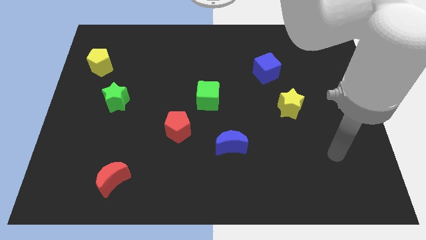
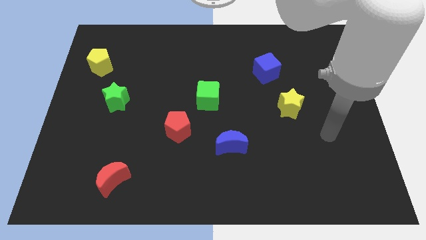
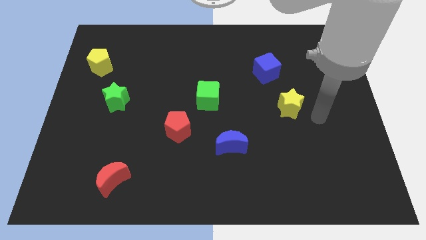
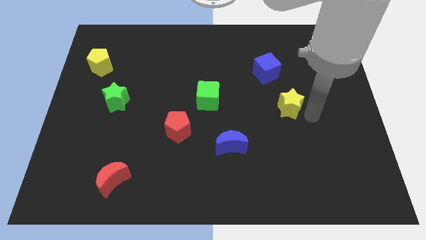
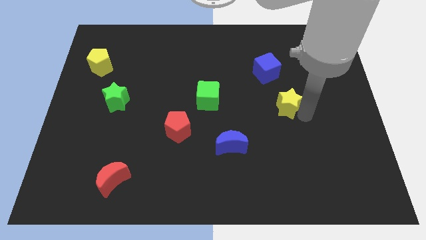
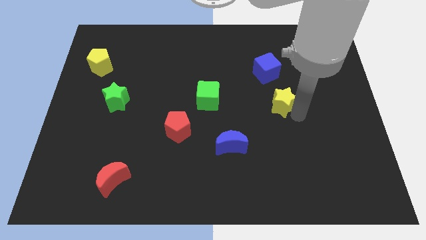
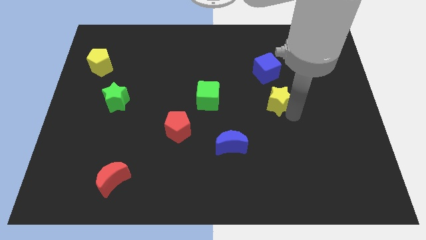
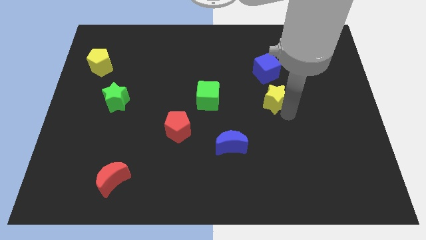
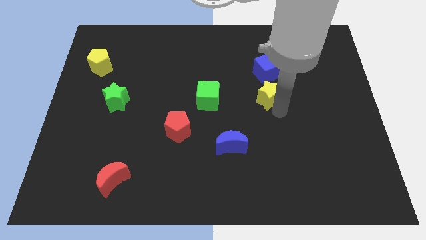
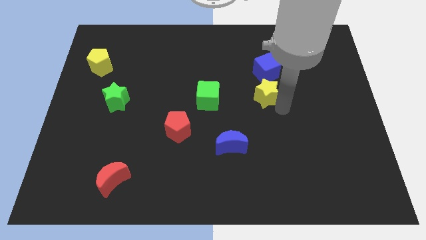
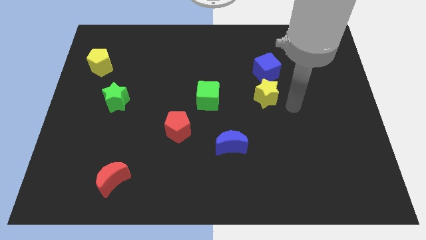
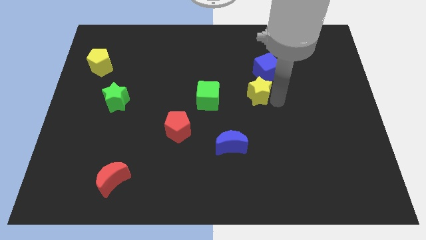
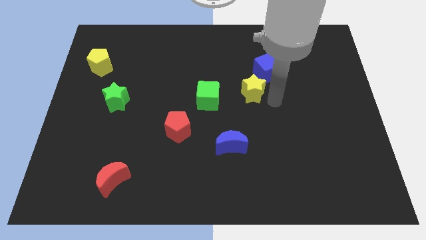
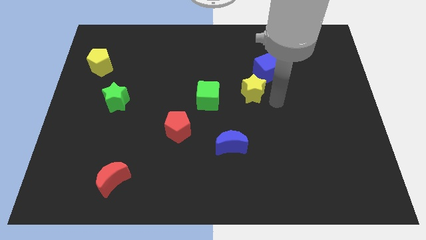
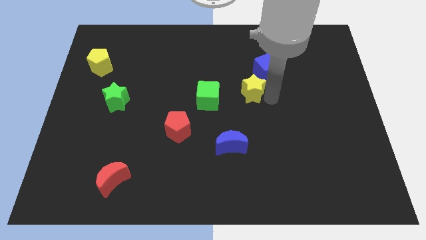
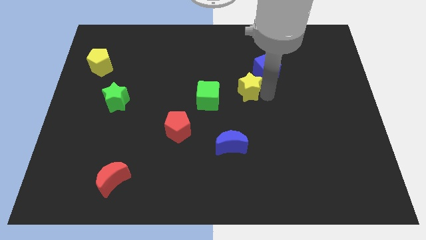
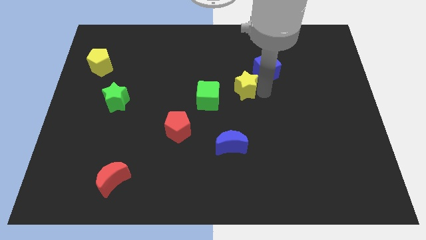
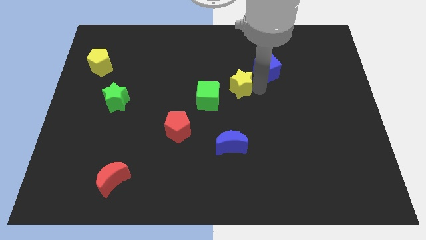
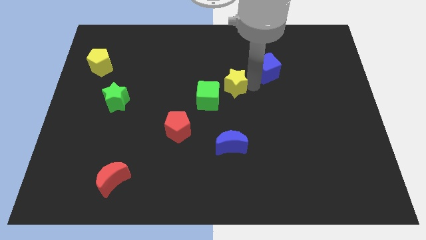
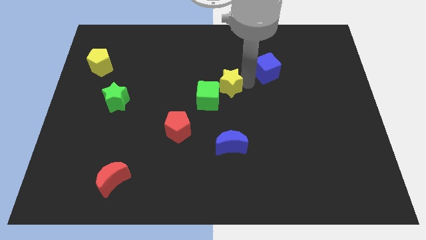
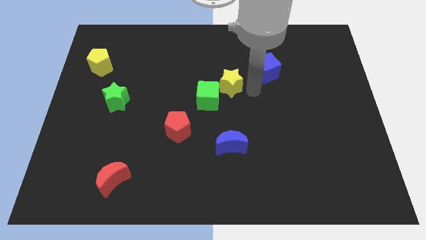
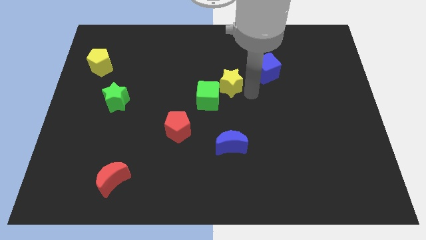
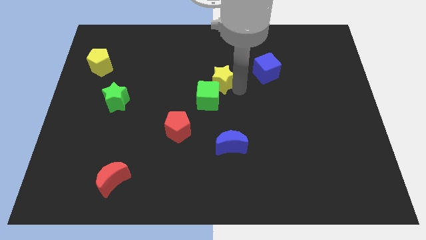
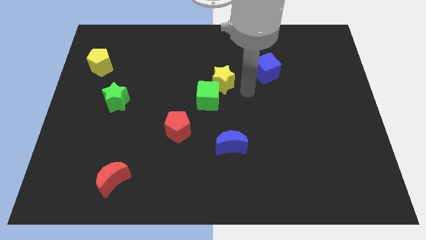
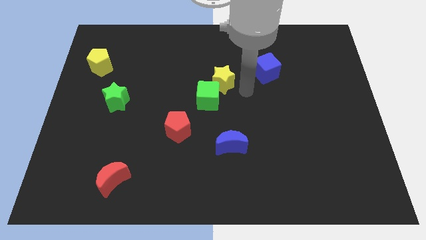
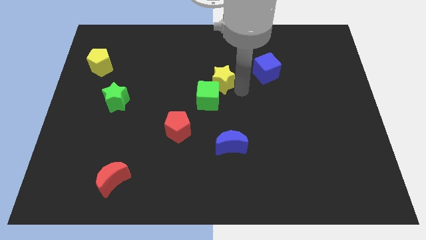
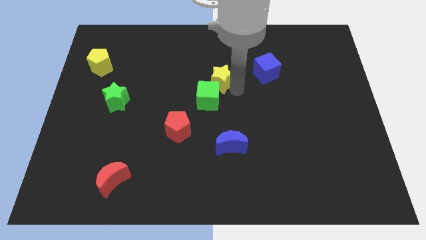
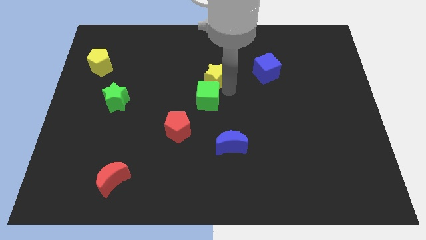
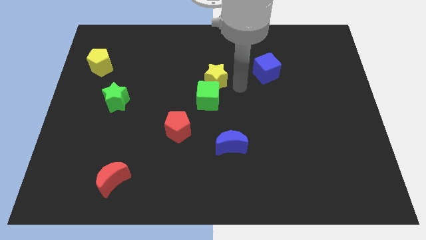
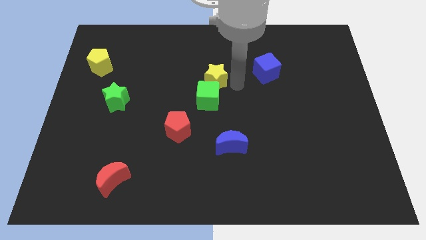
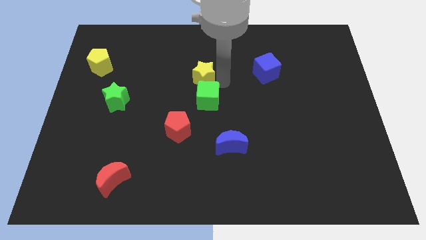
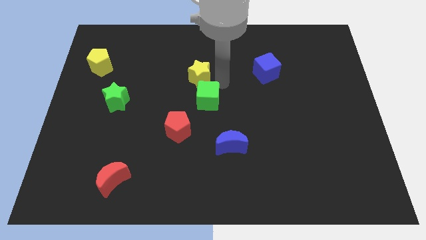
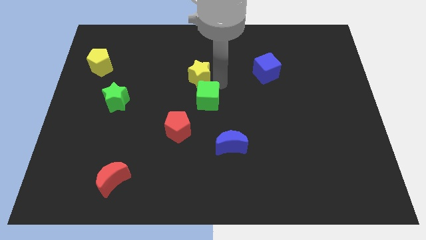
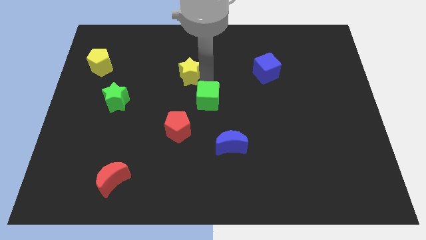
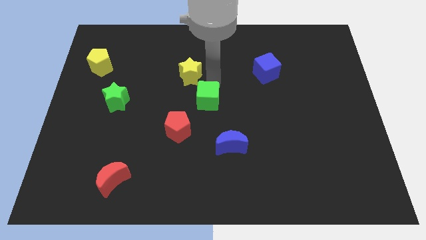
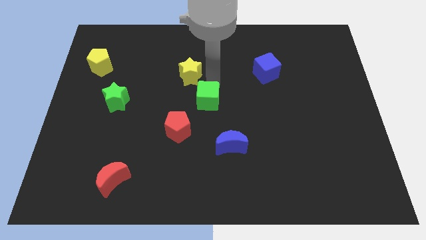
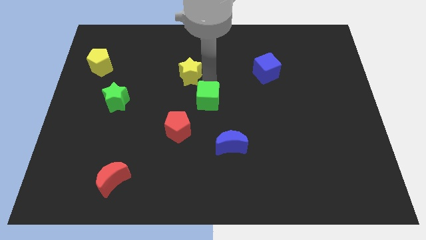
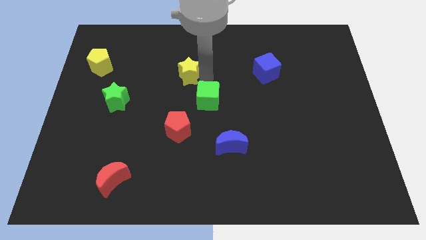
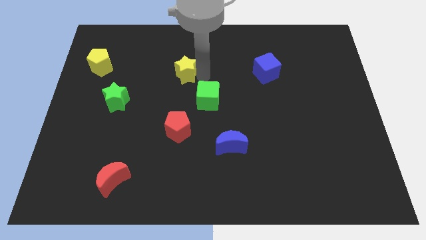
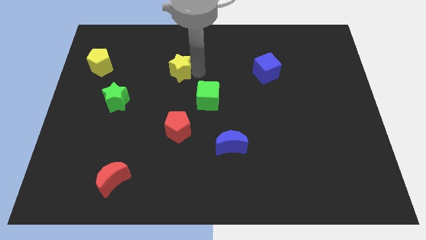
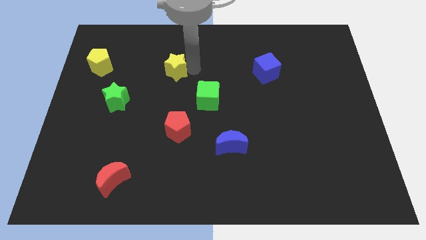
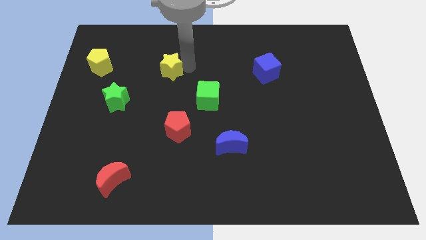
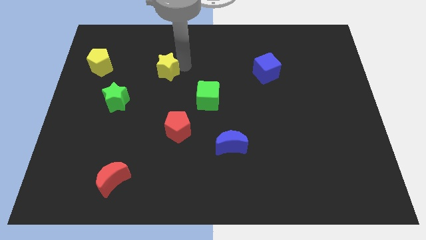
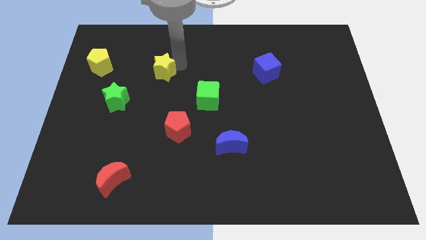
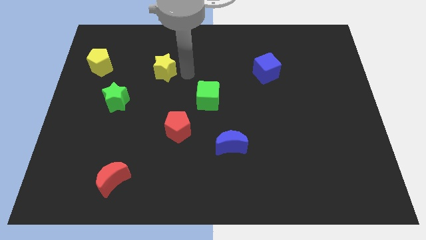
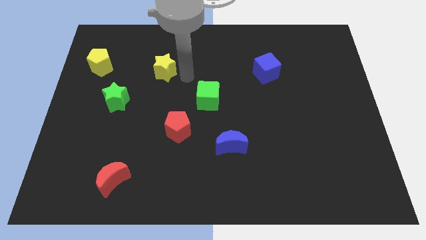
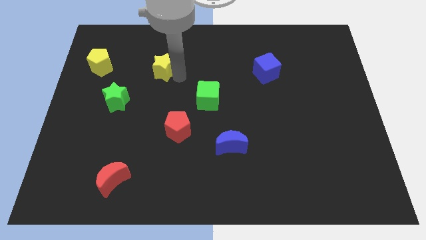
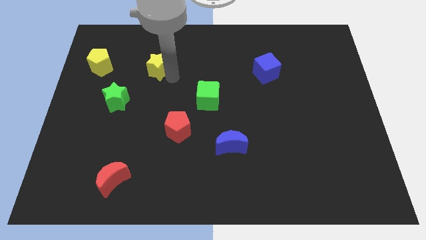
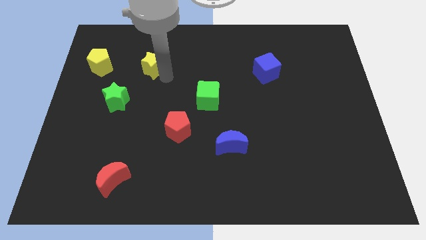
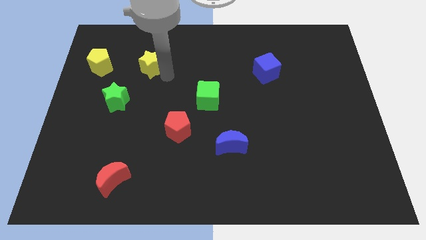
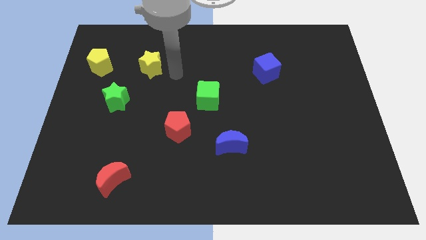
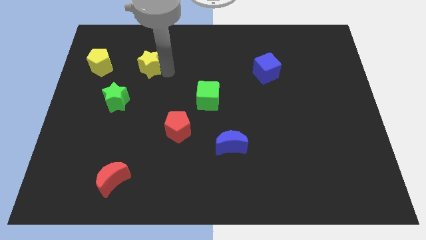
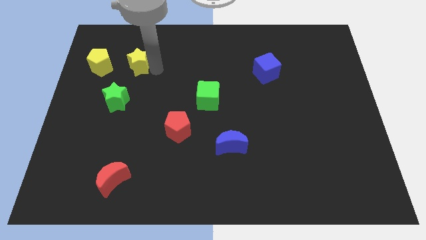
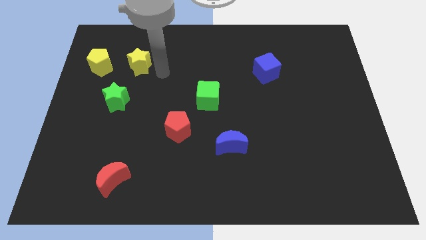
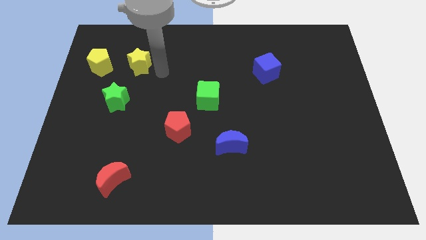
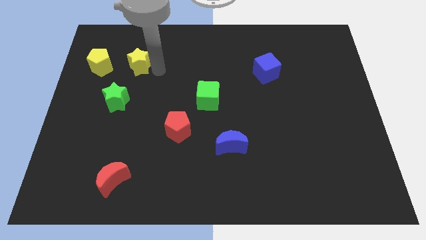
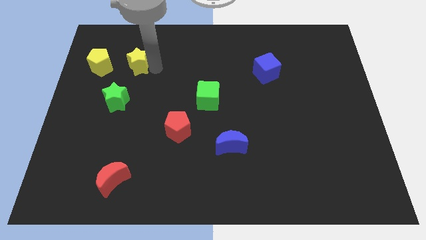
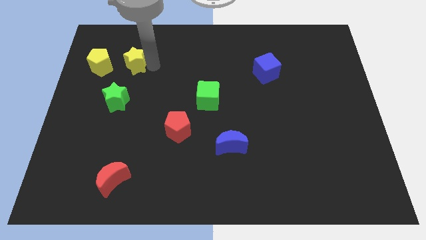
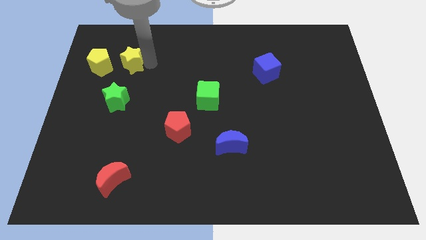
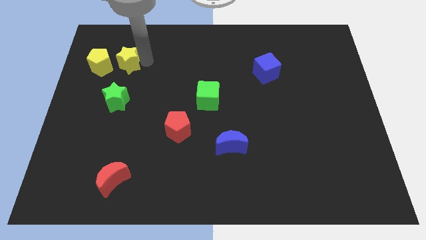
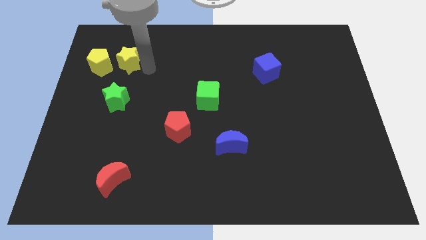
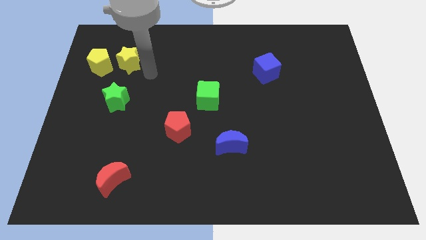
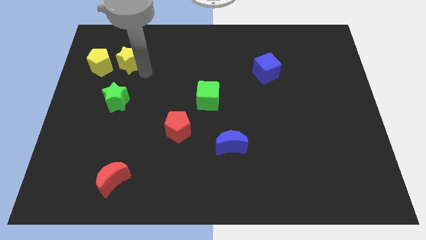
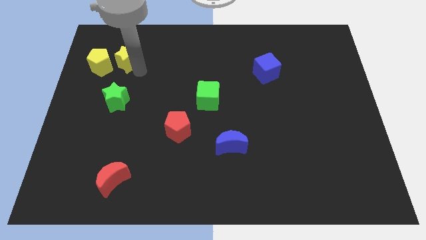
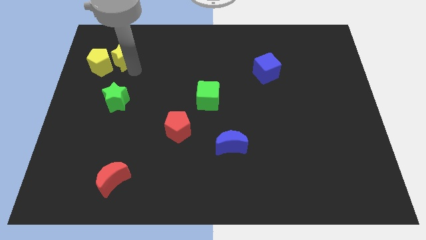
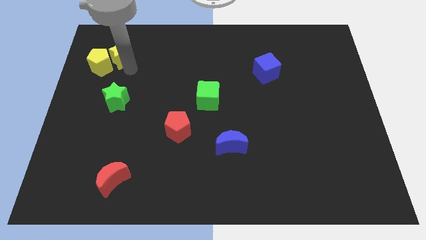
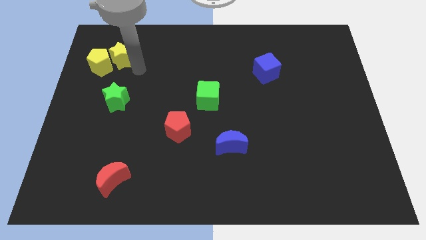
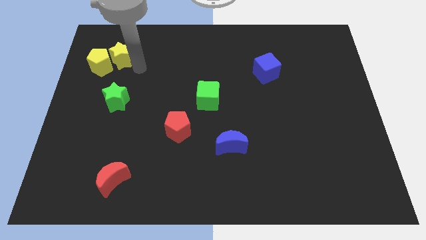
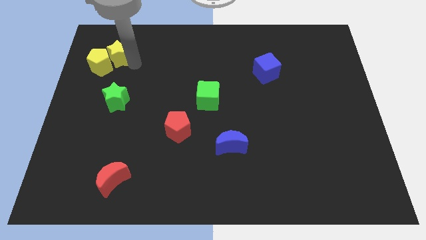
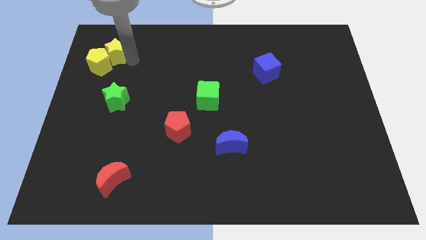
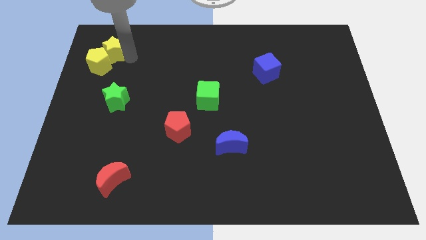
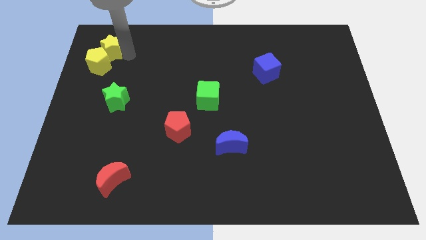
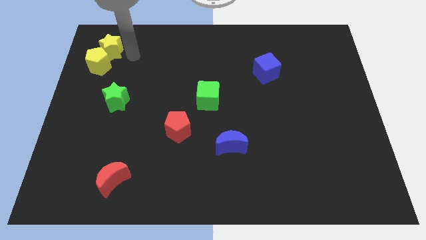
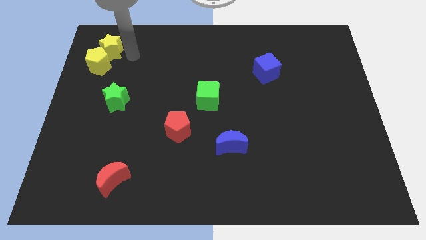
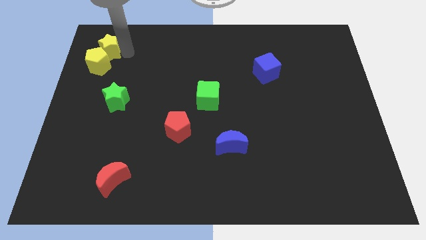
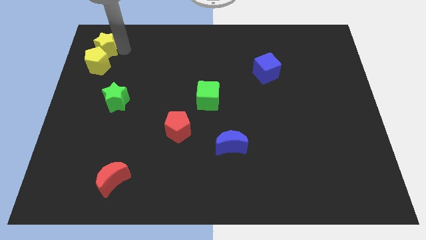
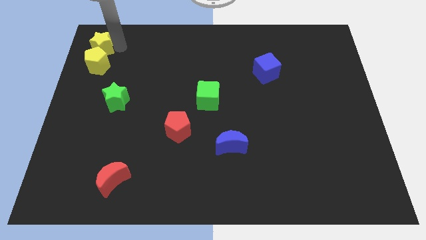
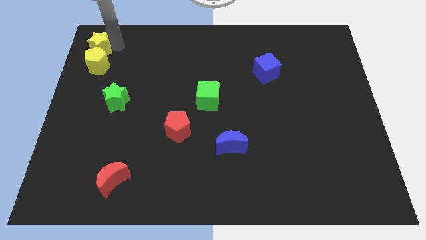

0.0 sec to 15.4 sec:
push the yellow star to the upper left corner
